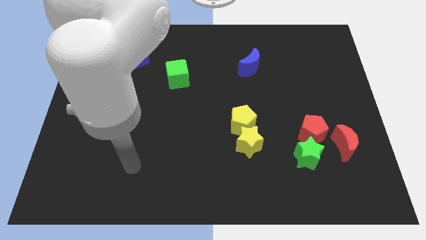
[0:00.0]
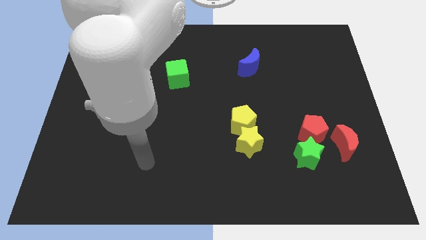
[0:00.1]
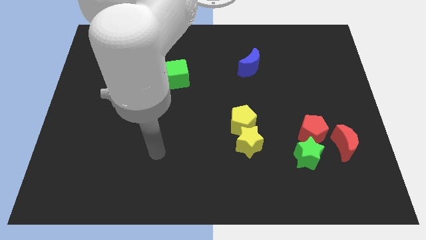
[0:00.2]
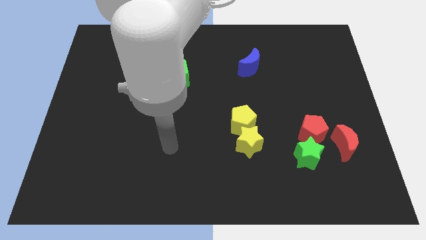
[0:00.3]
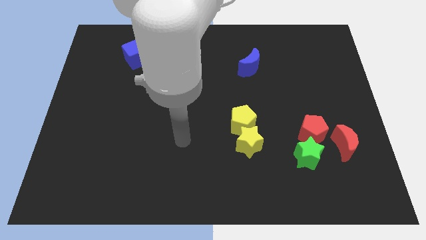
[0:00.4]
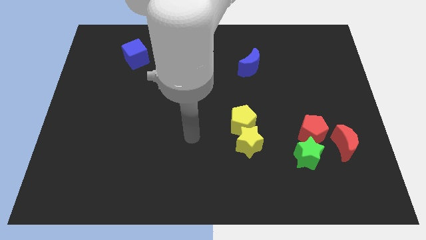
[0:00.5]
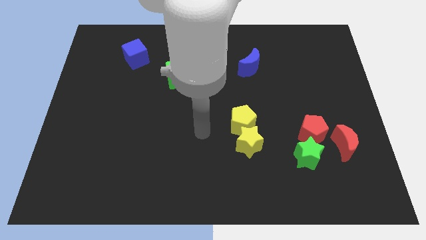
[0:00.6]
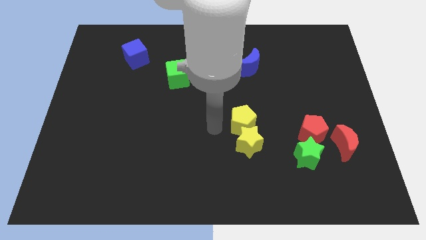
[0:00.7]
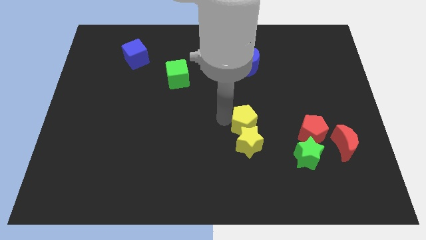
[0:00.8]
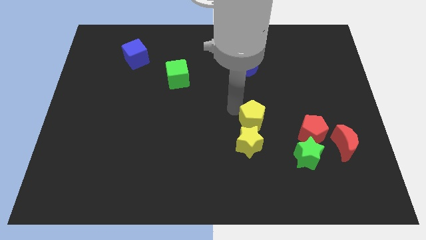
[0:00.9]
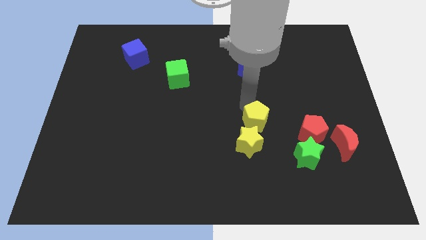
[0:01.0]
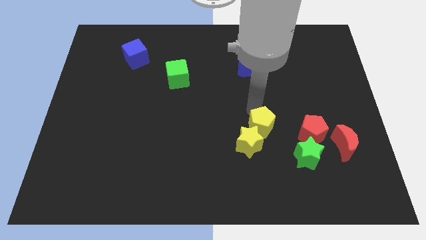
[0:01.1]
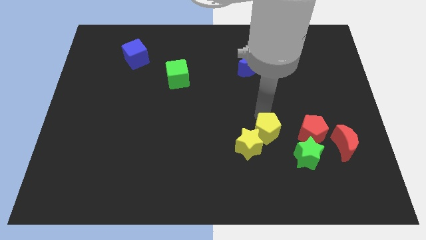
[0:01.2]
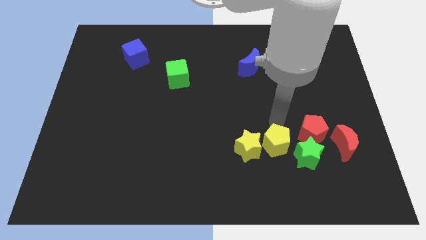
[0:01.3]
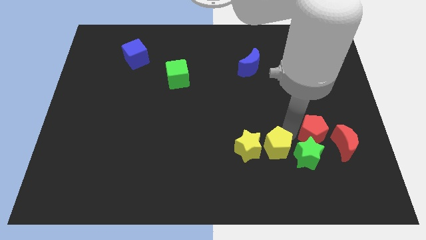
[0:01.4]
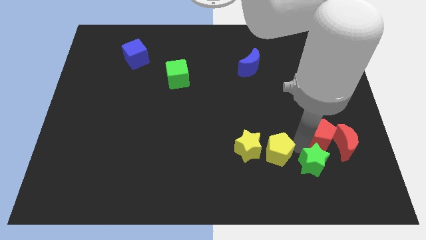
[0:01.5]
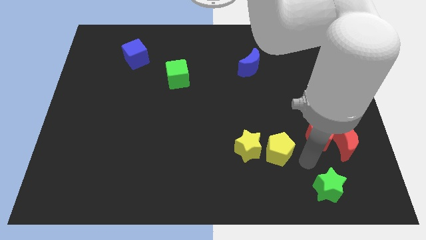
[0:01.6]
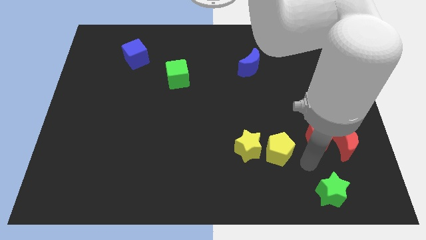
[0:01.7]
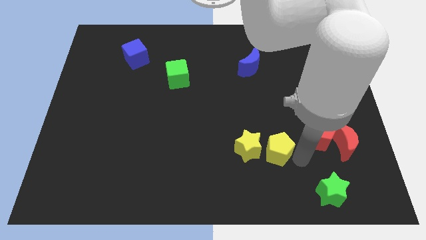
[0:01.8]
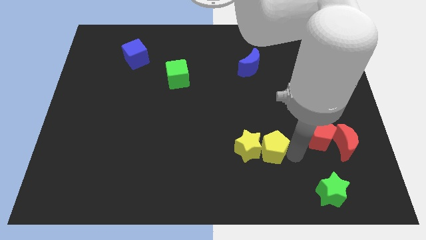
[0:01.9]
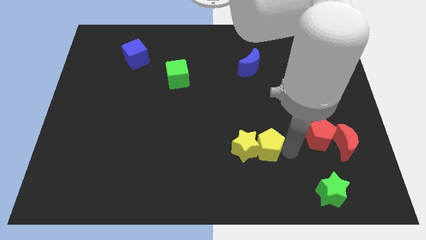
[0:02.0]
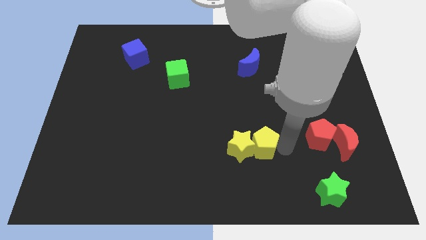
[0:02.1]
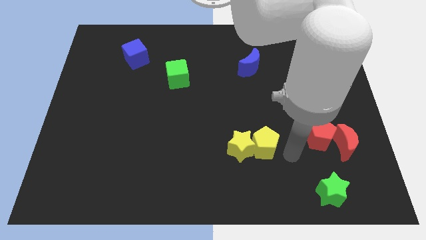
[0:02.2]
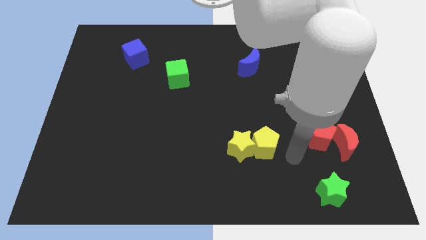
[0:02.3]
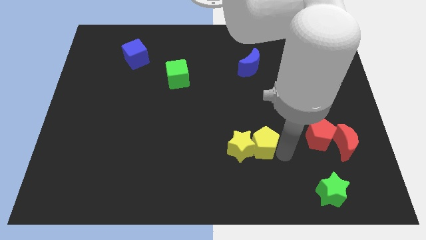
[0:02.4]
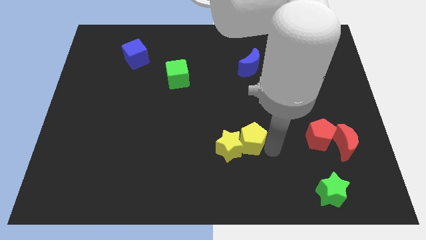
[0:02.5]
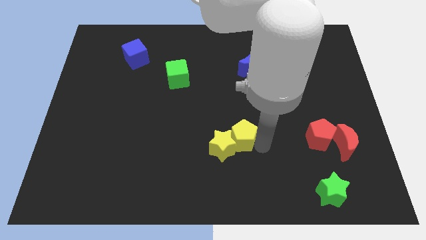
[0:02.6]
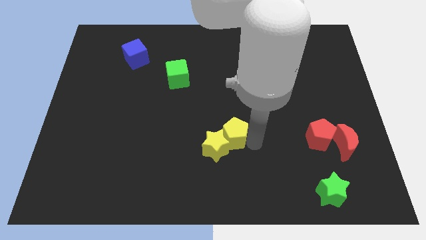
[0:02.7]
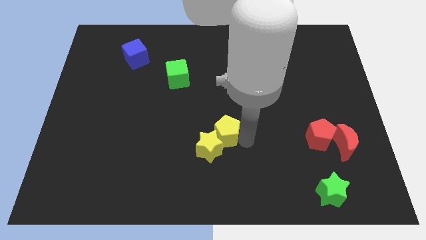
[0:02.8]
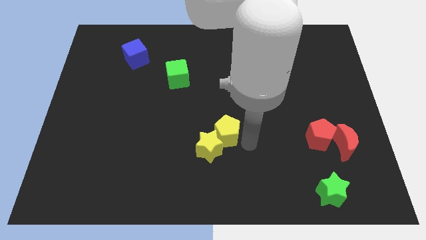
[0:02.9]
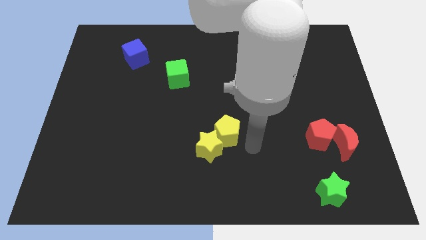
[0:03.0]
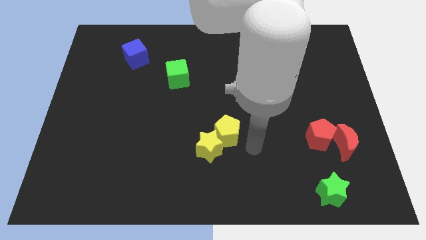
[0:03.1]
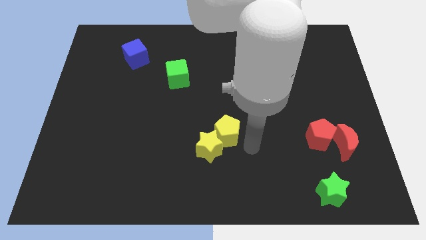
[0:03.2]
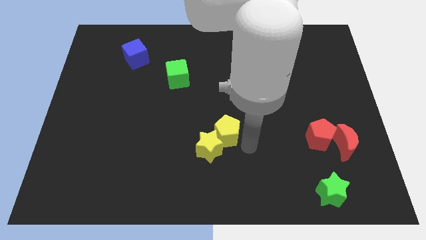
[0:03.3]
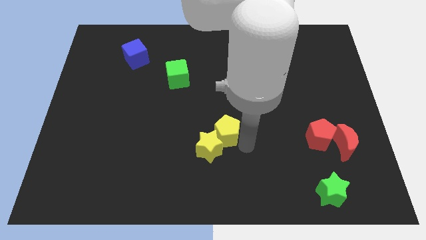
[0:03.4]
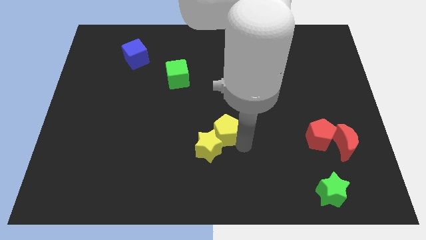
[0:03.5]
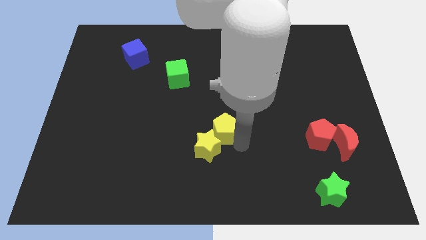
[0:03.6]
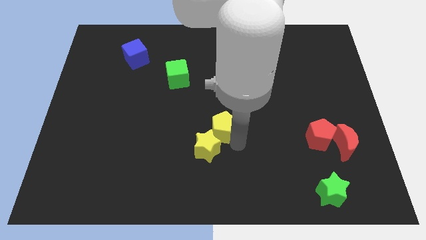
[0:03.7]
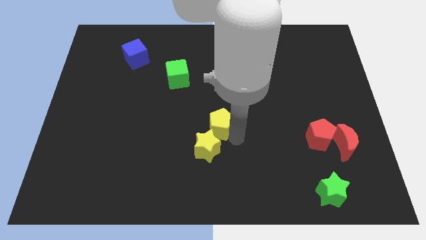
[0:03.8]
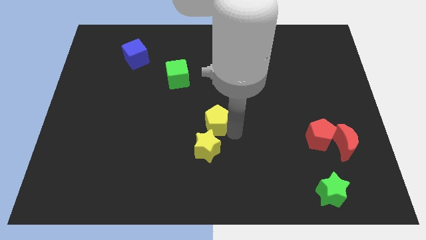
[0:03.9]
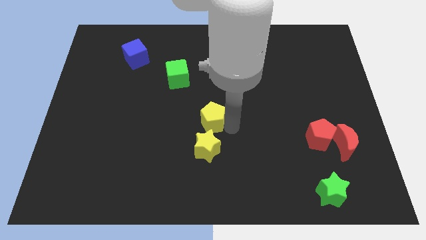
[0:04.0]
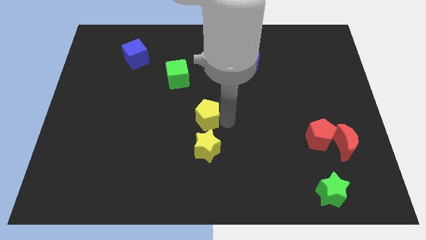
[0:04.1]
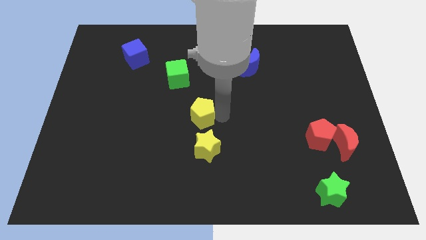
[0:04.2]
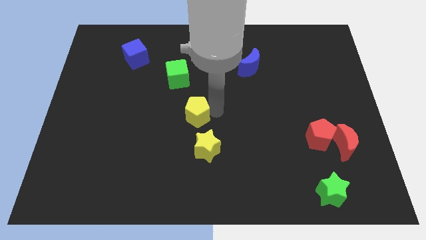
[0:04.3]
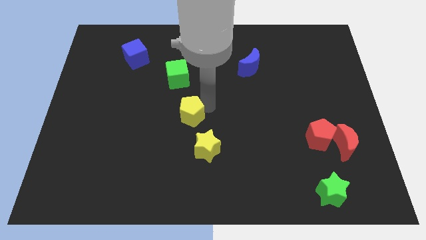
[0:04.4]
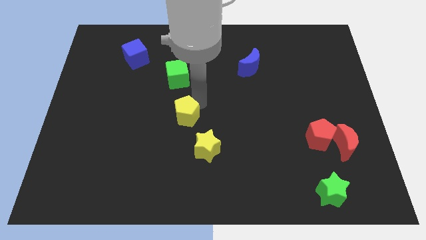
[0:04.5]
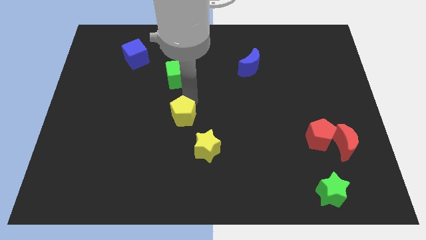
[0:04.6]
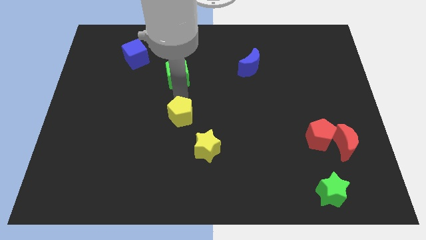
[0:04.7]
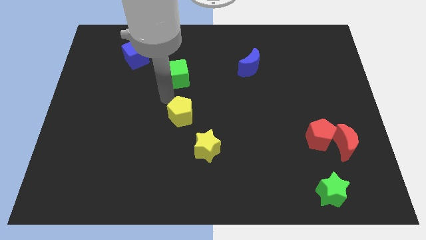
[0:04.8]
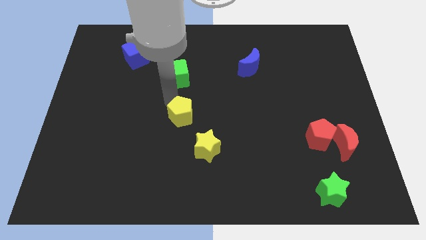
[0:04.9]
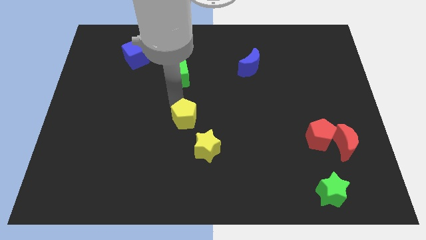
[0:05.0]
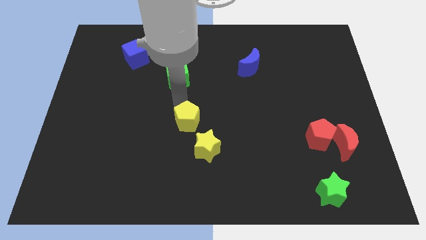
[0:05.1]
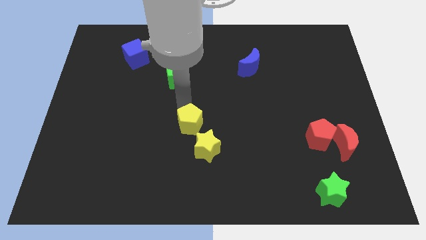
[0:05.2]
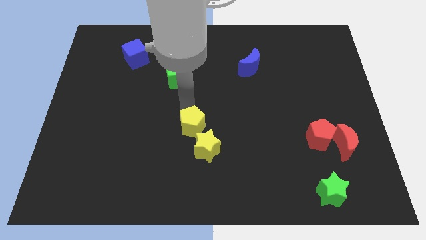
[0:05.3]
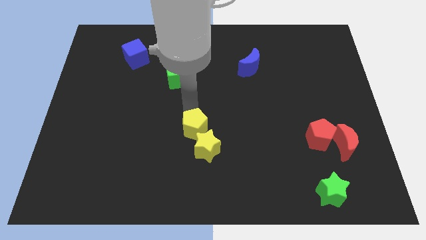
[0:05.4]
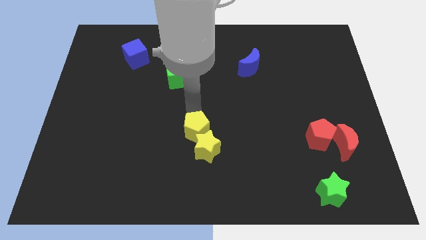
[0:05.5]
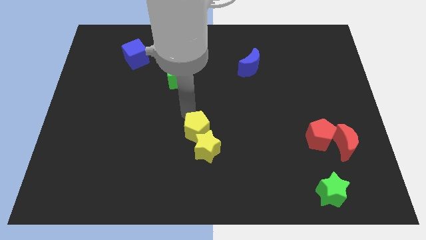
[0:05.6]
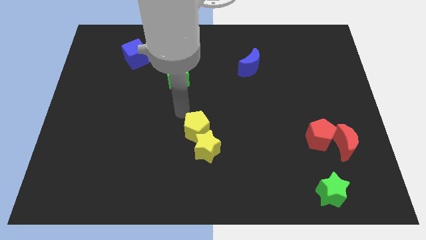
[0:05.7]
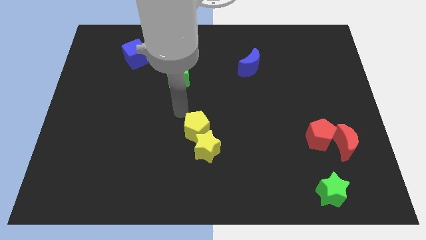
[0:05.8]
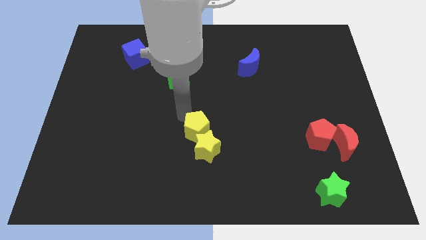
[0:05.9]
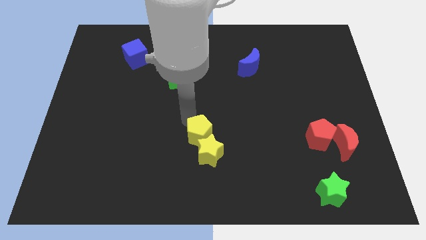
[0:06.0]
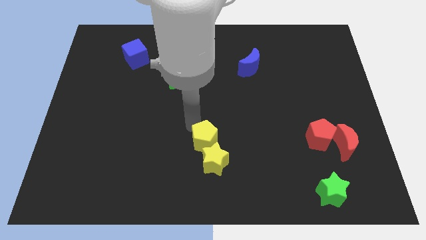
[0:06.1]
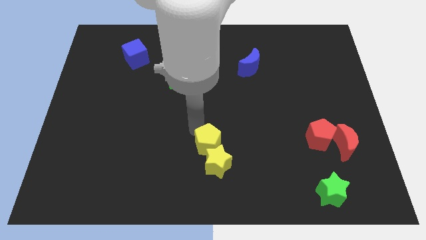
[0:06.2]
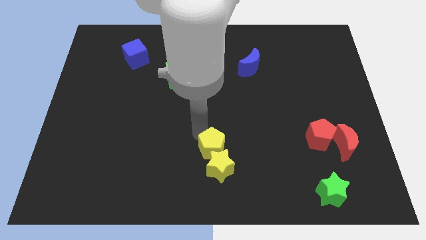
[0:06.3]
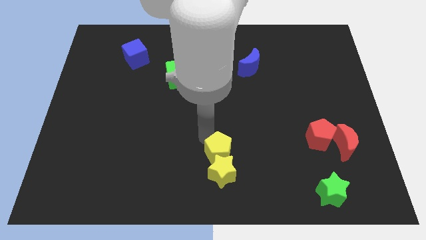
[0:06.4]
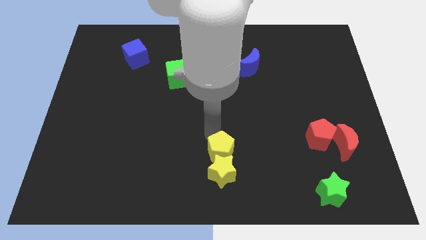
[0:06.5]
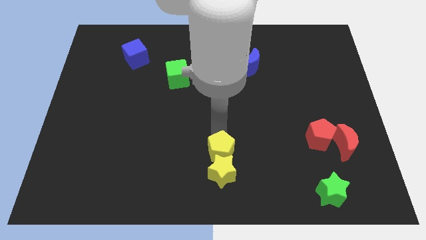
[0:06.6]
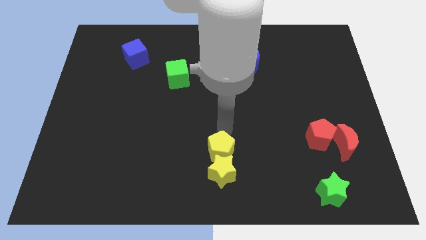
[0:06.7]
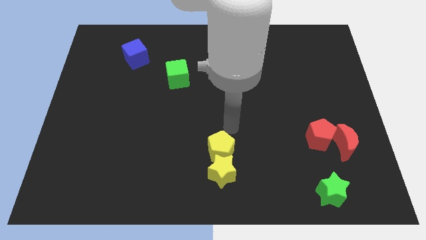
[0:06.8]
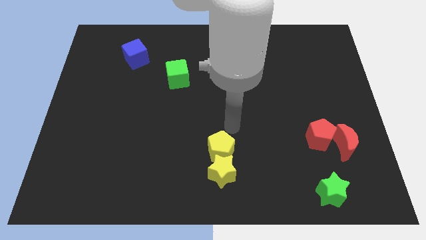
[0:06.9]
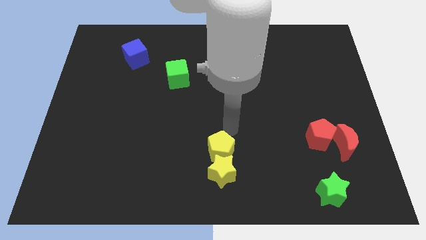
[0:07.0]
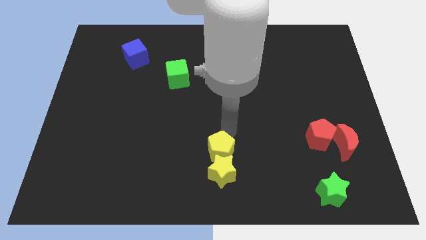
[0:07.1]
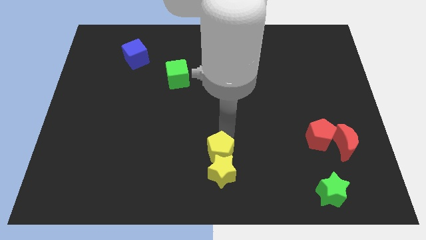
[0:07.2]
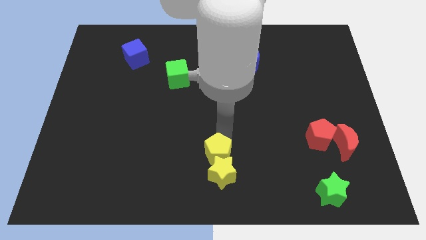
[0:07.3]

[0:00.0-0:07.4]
put the yellow pentagon to the bottom
